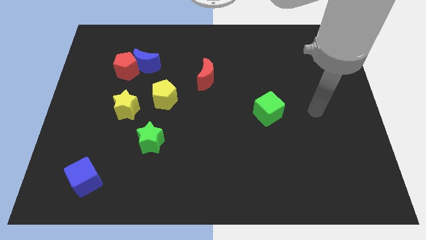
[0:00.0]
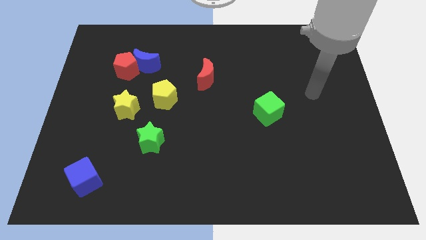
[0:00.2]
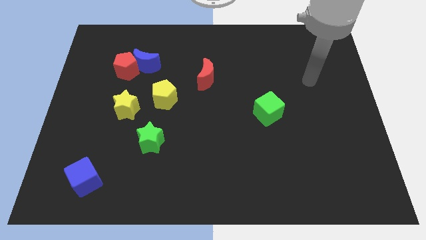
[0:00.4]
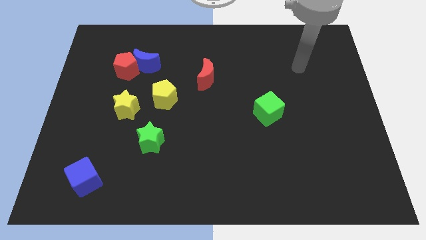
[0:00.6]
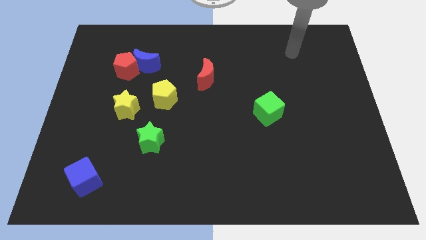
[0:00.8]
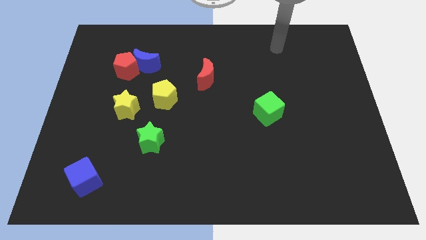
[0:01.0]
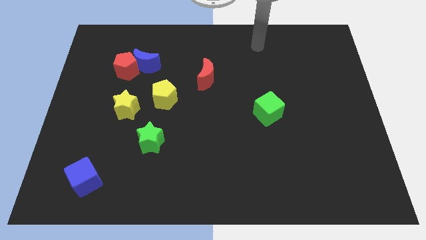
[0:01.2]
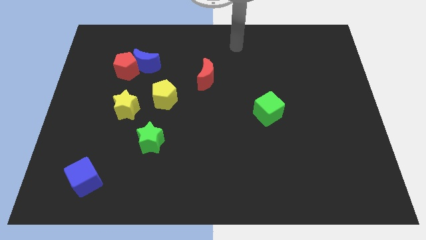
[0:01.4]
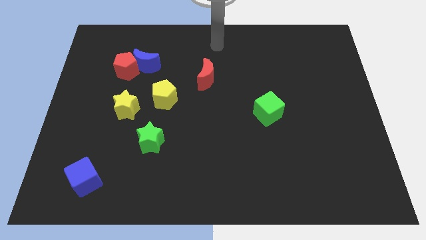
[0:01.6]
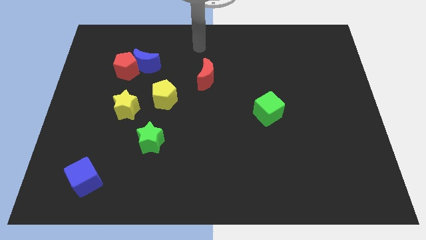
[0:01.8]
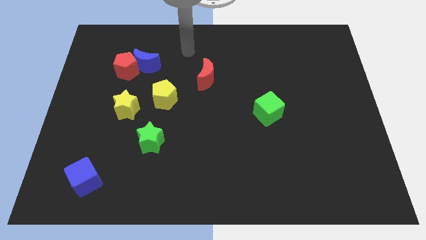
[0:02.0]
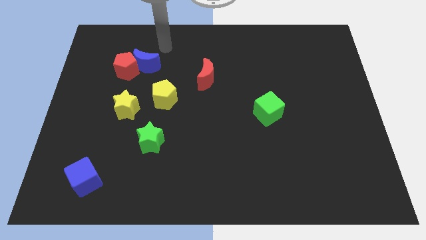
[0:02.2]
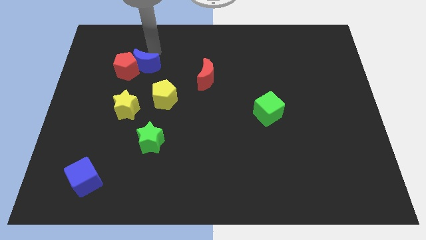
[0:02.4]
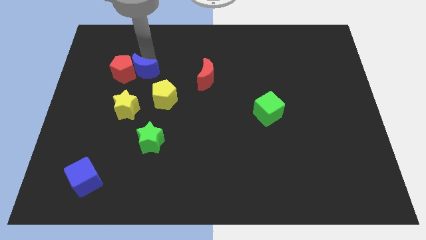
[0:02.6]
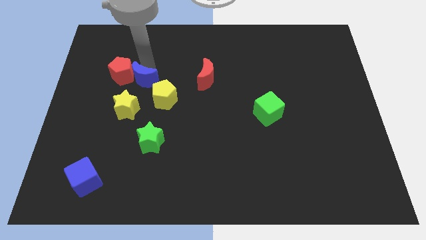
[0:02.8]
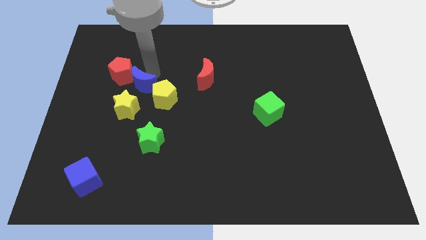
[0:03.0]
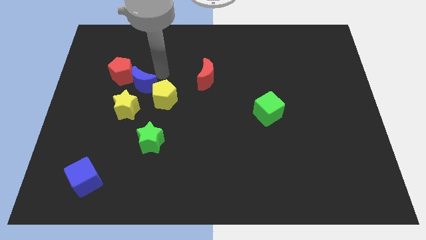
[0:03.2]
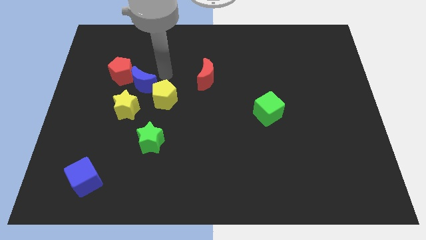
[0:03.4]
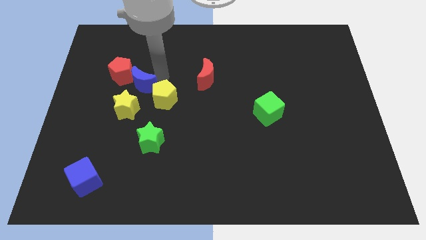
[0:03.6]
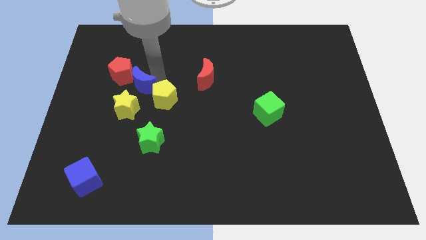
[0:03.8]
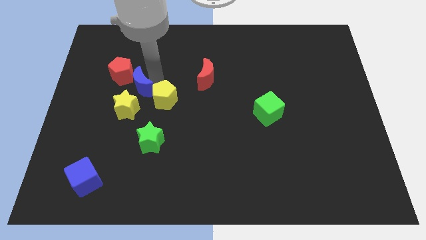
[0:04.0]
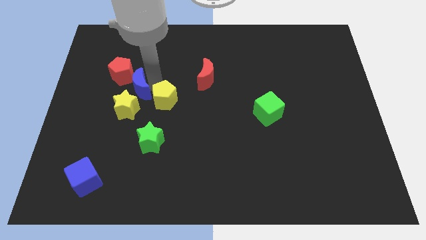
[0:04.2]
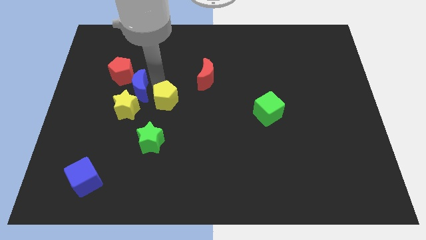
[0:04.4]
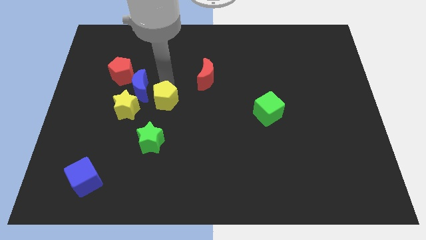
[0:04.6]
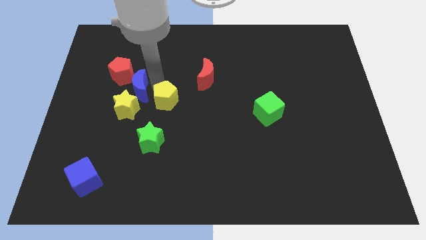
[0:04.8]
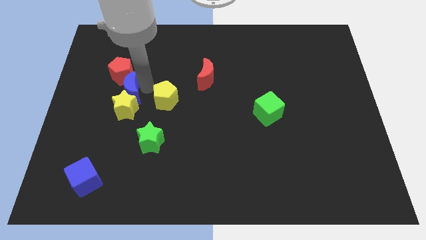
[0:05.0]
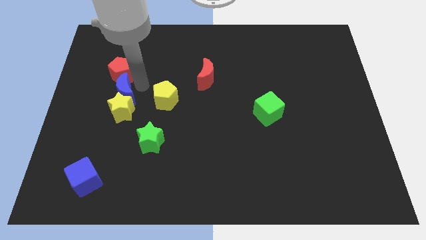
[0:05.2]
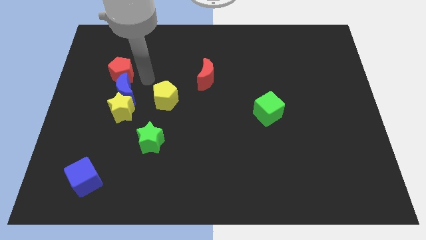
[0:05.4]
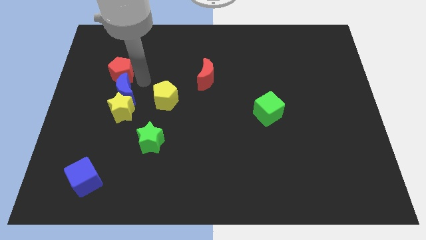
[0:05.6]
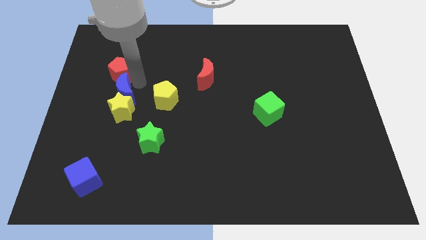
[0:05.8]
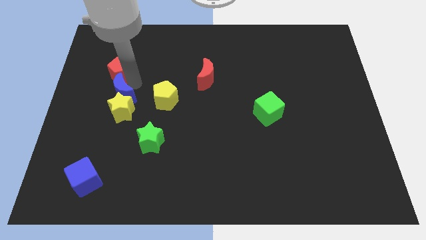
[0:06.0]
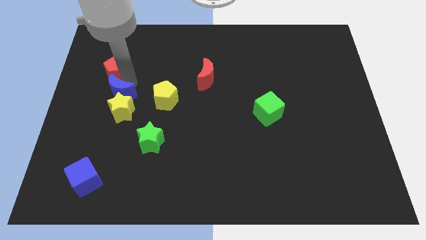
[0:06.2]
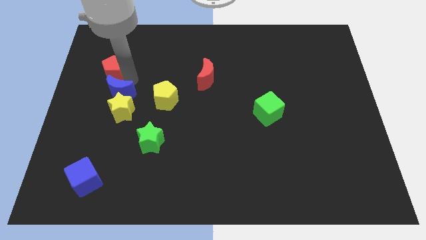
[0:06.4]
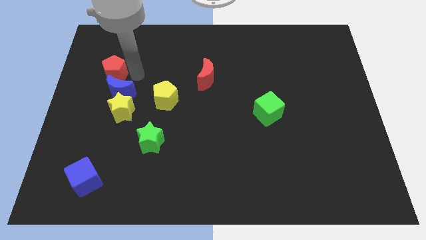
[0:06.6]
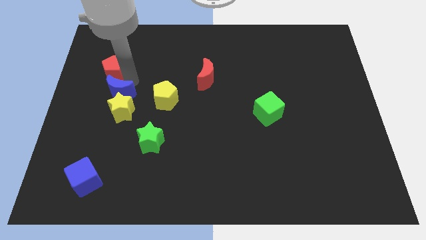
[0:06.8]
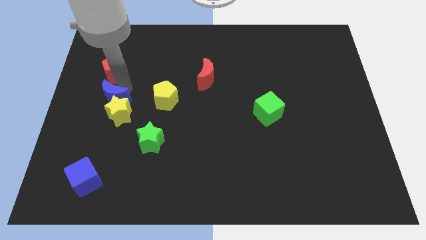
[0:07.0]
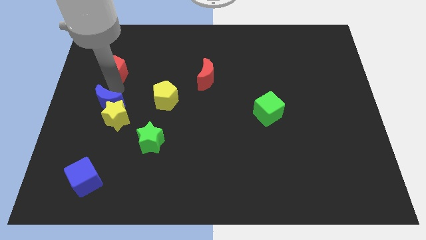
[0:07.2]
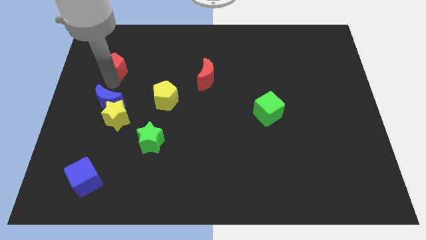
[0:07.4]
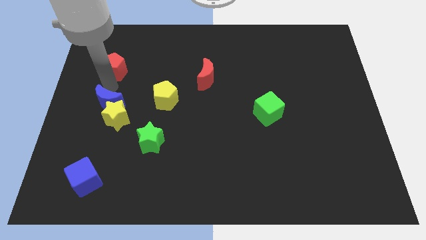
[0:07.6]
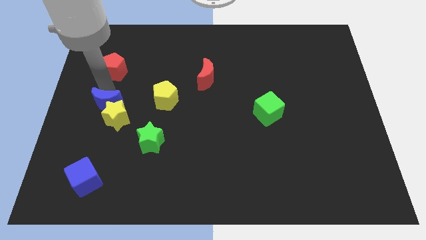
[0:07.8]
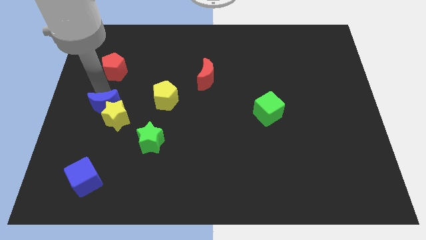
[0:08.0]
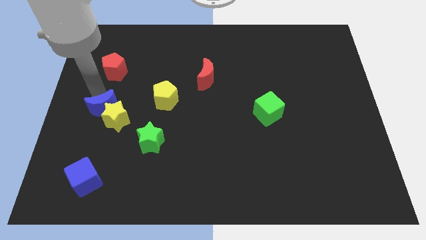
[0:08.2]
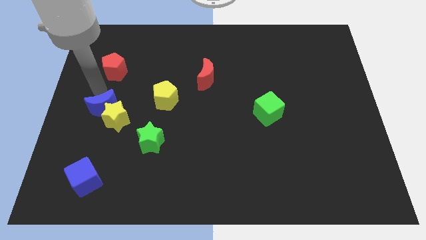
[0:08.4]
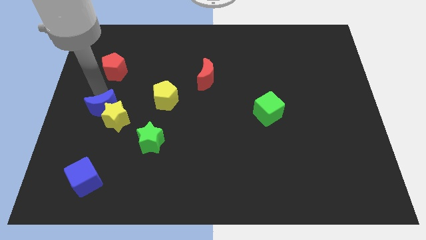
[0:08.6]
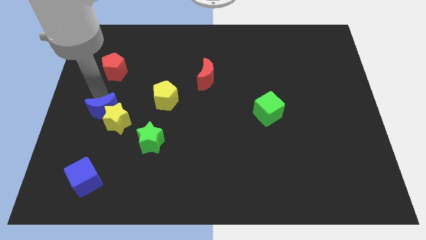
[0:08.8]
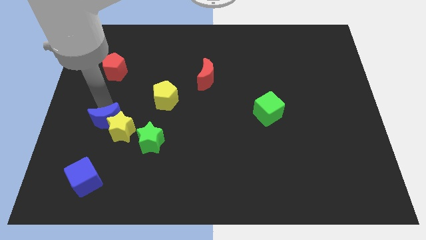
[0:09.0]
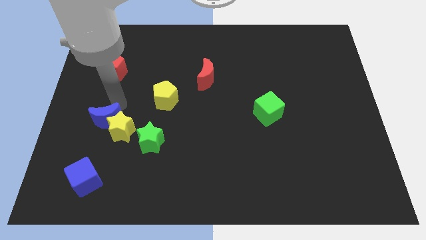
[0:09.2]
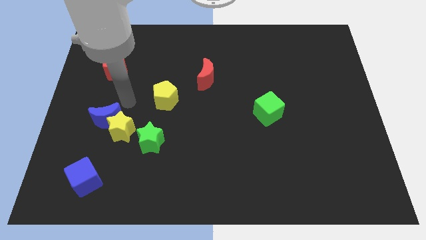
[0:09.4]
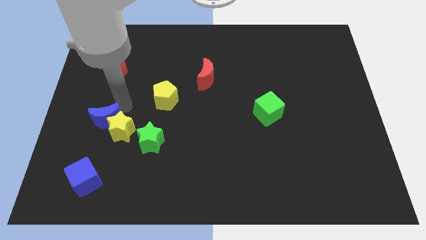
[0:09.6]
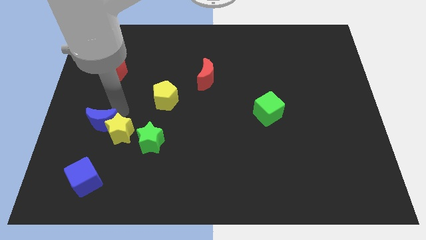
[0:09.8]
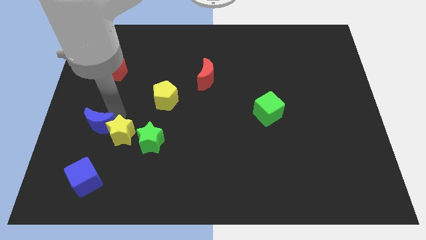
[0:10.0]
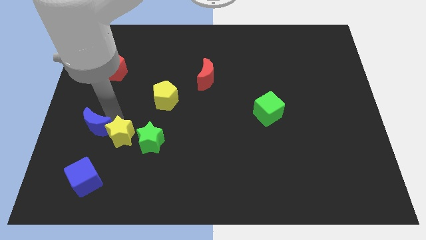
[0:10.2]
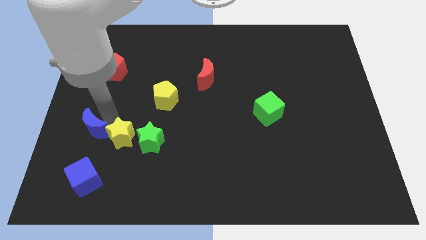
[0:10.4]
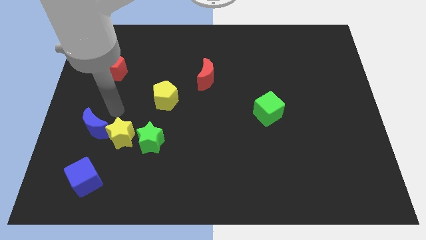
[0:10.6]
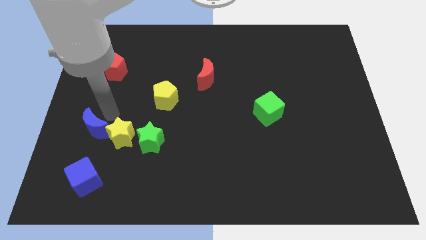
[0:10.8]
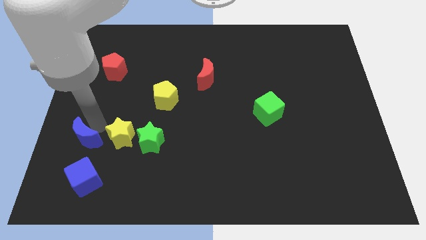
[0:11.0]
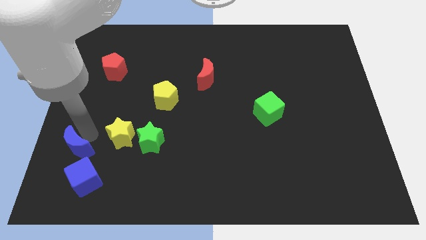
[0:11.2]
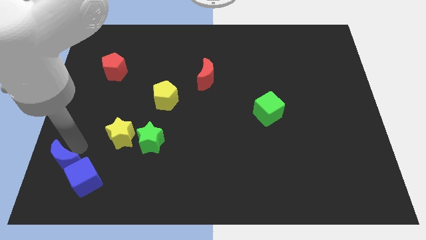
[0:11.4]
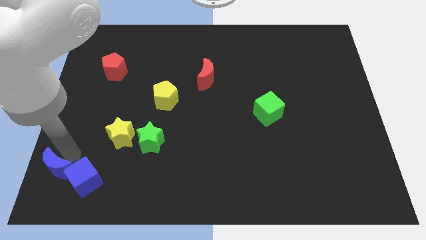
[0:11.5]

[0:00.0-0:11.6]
push the blue moon to the bottom left corner
